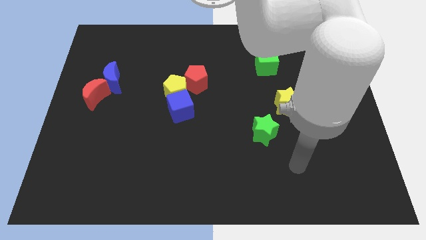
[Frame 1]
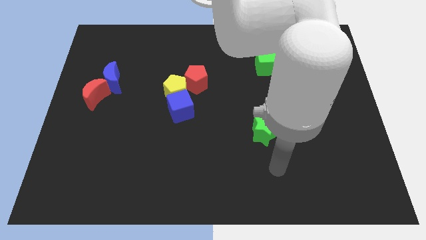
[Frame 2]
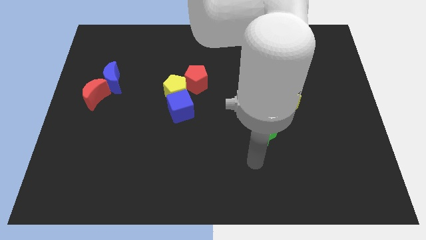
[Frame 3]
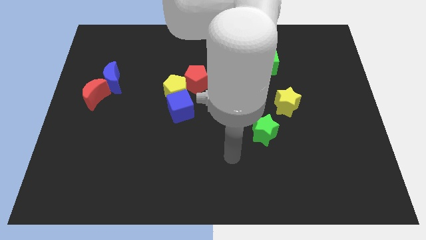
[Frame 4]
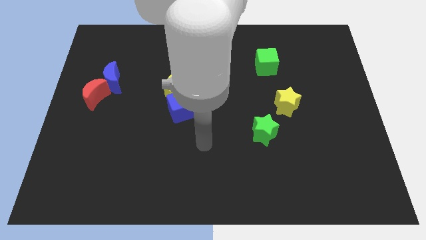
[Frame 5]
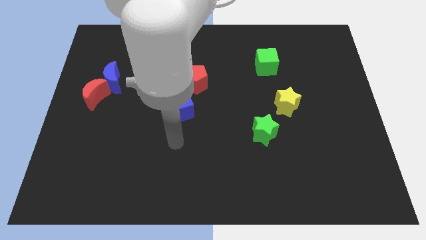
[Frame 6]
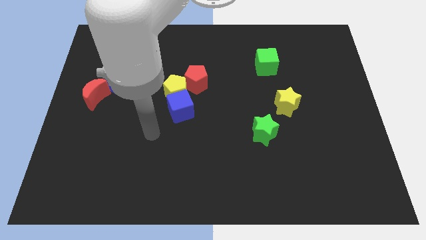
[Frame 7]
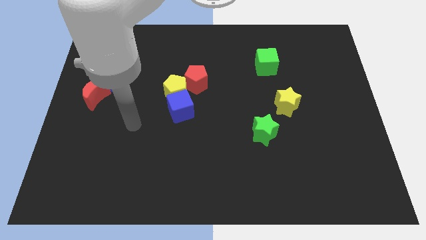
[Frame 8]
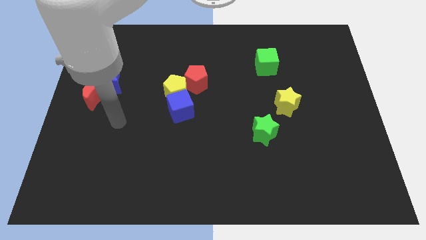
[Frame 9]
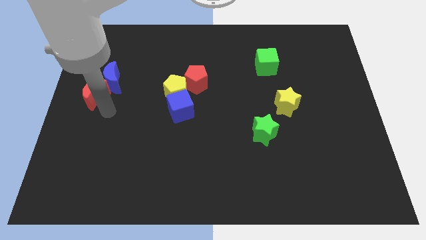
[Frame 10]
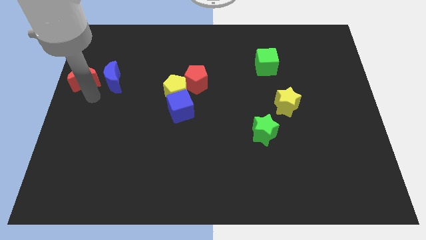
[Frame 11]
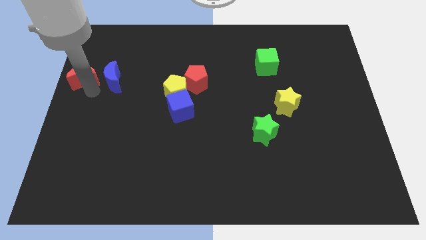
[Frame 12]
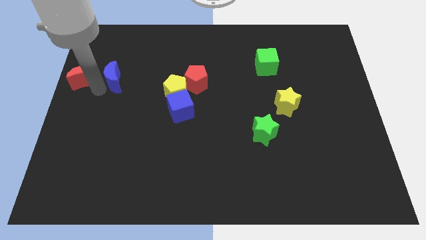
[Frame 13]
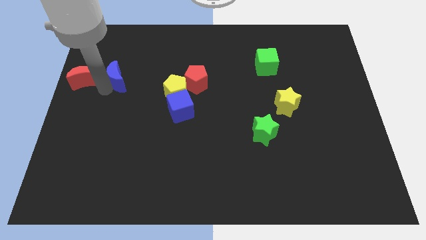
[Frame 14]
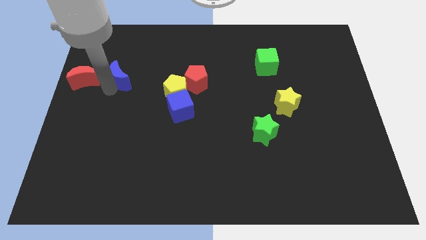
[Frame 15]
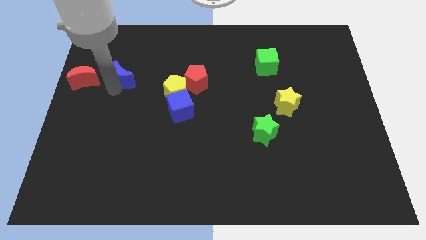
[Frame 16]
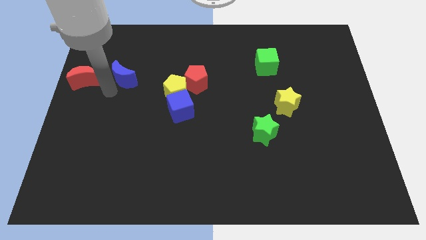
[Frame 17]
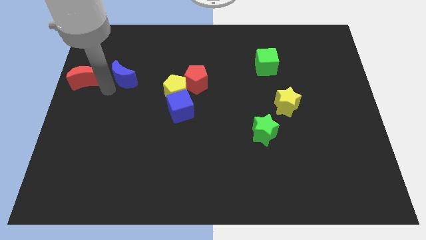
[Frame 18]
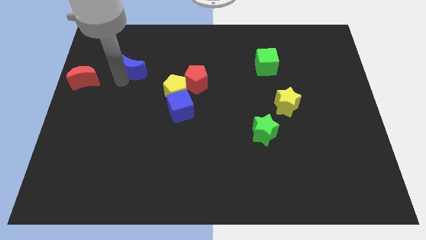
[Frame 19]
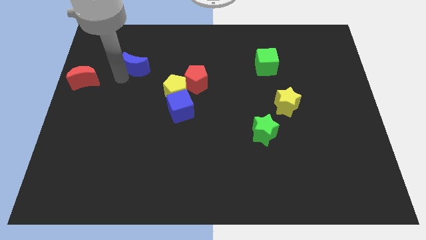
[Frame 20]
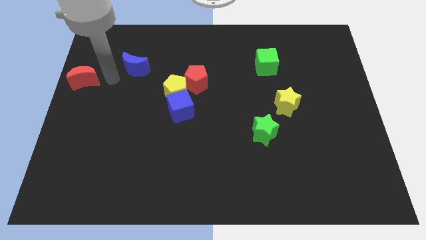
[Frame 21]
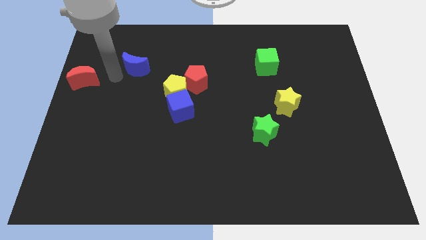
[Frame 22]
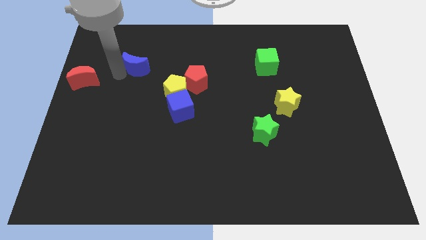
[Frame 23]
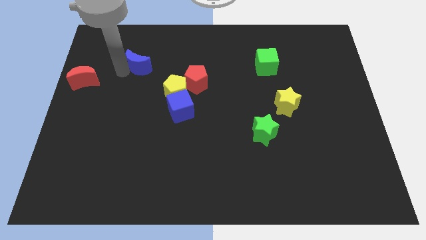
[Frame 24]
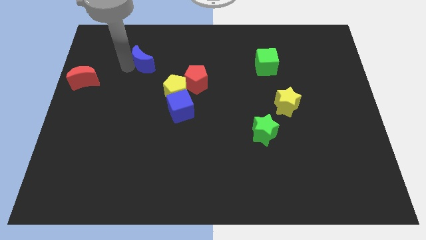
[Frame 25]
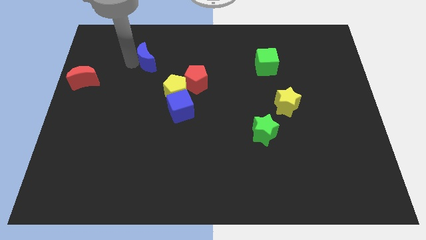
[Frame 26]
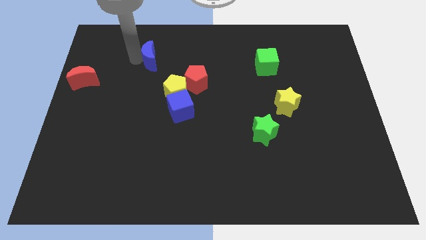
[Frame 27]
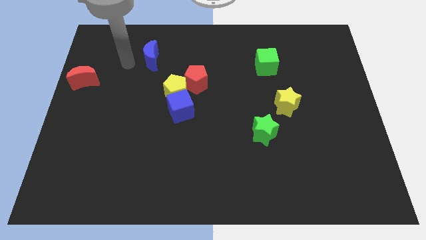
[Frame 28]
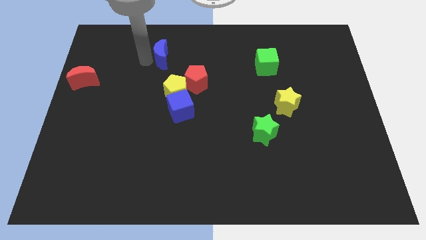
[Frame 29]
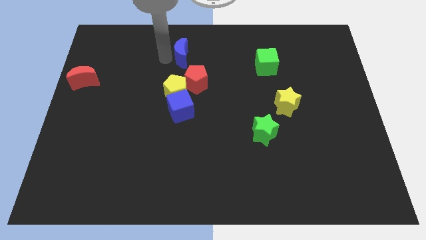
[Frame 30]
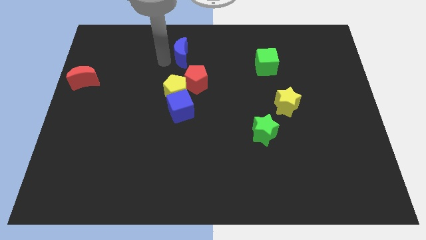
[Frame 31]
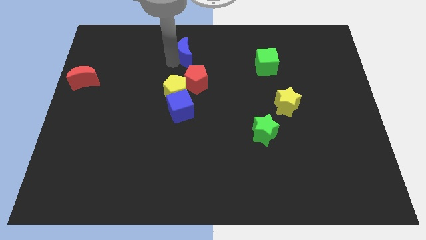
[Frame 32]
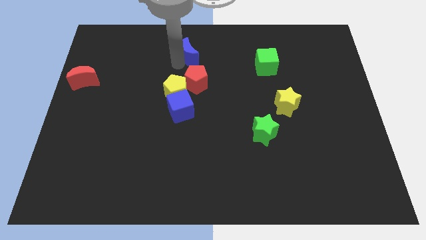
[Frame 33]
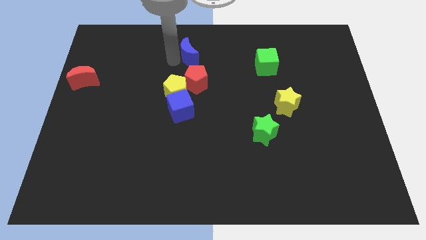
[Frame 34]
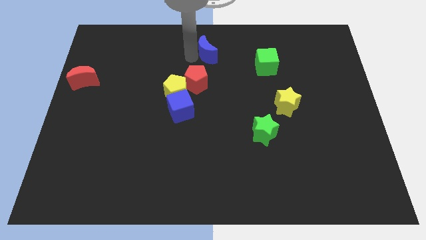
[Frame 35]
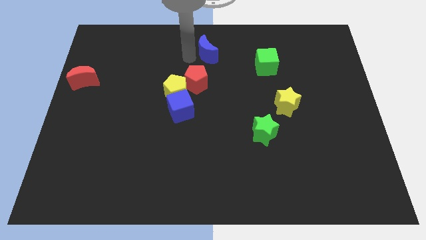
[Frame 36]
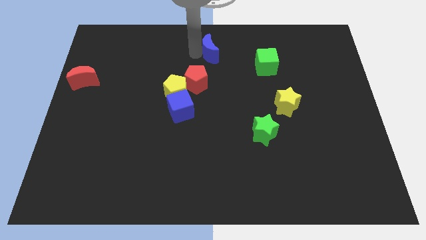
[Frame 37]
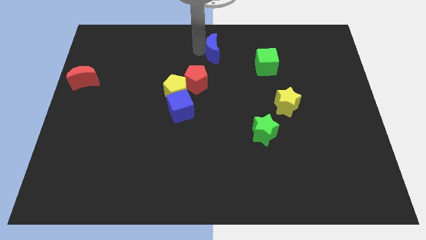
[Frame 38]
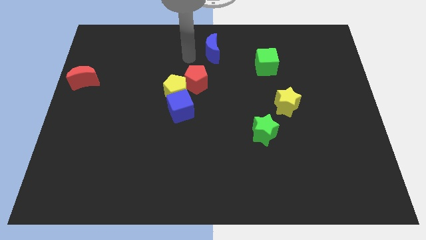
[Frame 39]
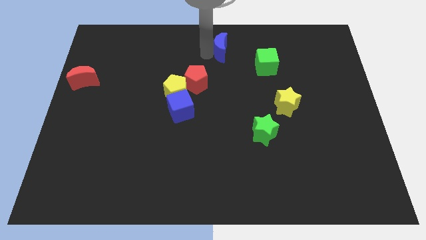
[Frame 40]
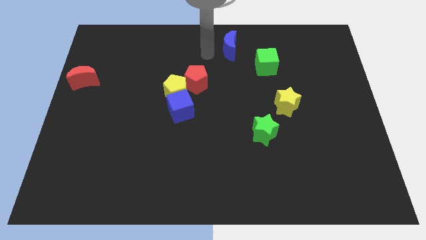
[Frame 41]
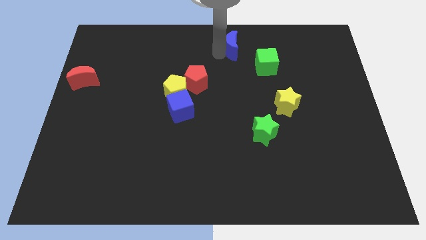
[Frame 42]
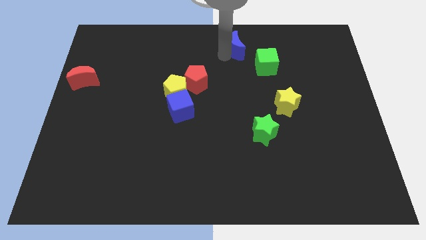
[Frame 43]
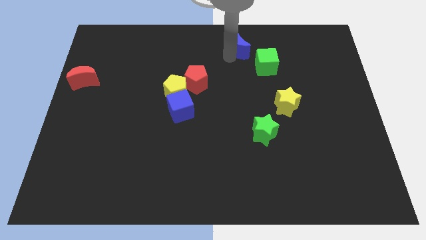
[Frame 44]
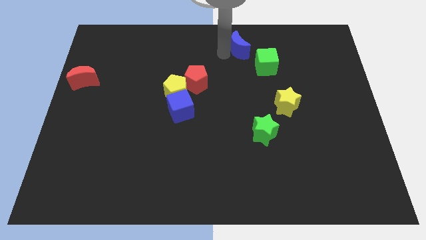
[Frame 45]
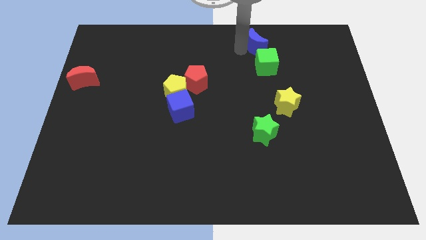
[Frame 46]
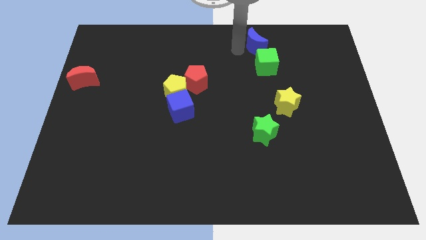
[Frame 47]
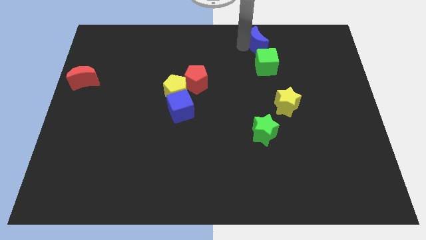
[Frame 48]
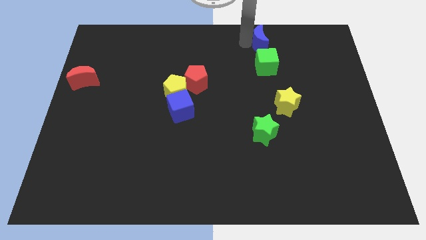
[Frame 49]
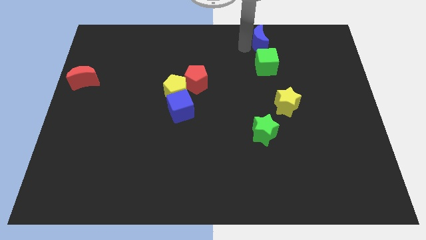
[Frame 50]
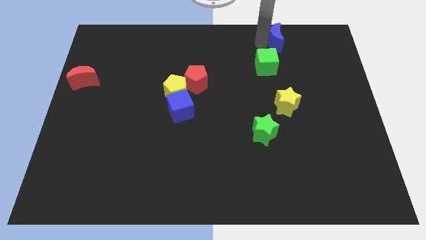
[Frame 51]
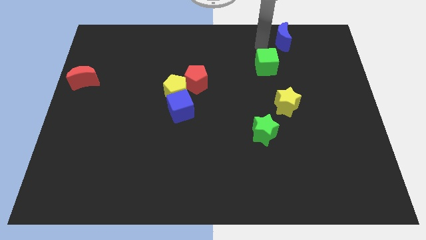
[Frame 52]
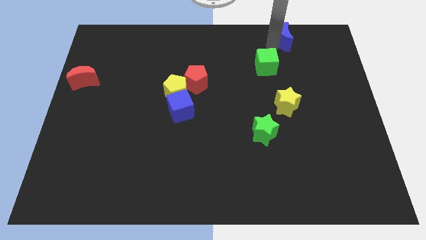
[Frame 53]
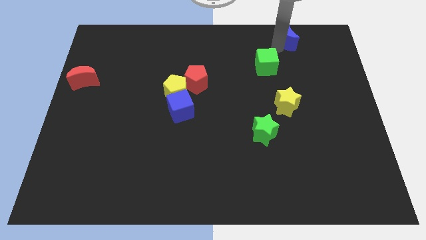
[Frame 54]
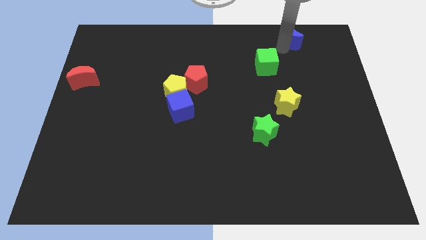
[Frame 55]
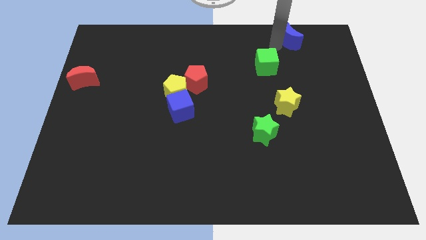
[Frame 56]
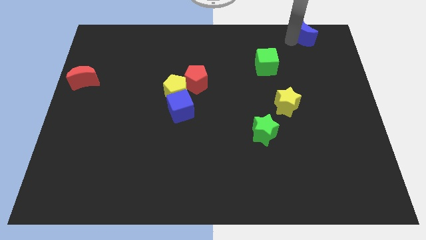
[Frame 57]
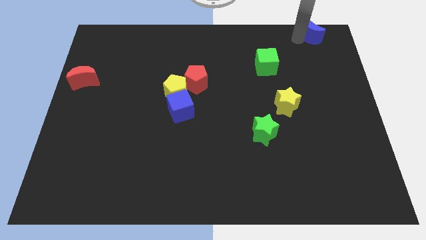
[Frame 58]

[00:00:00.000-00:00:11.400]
slide the blue moon to the top right of the board
